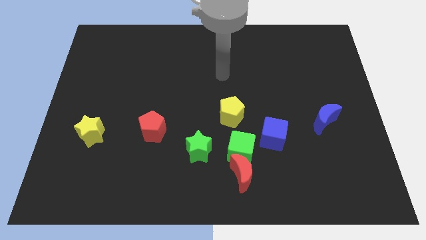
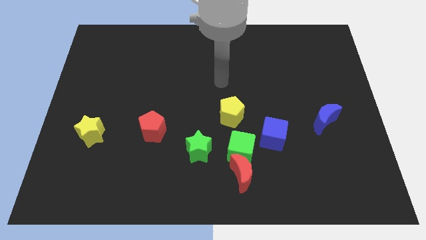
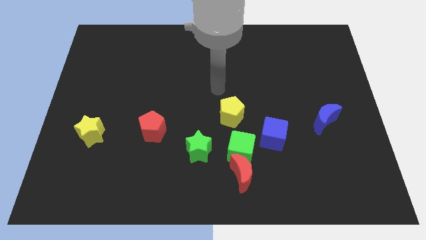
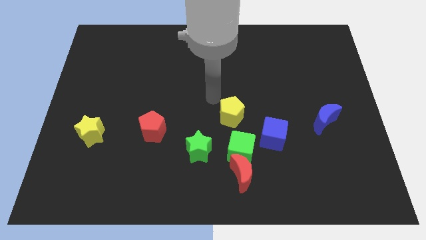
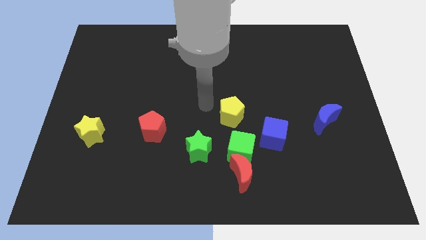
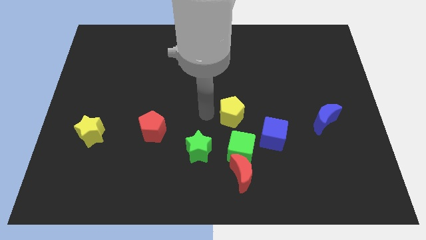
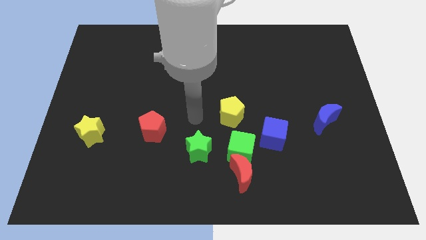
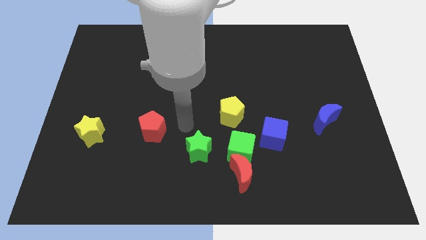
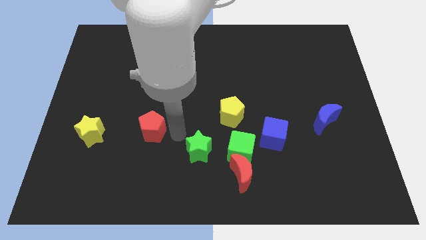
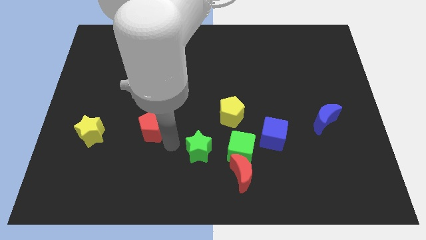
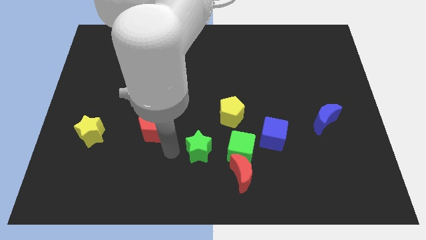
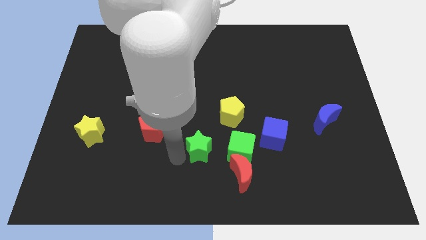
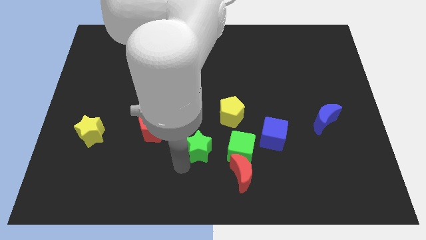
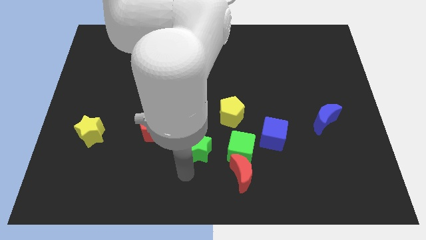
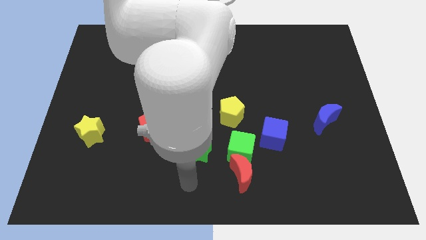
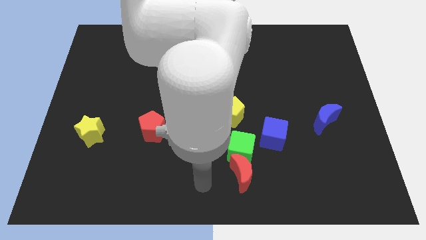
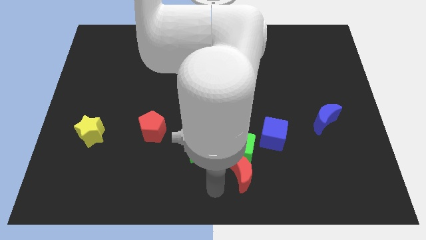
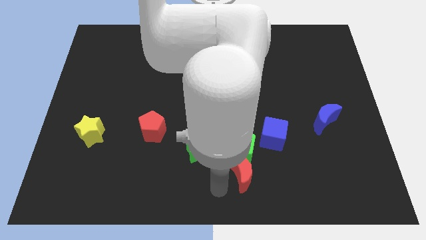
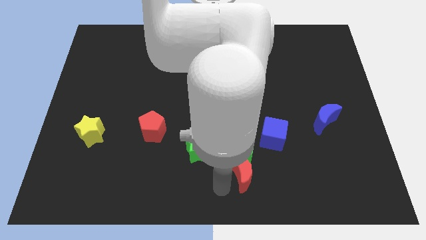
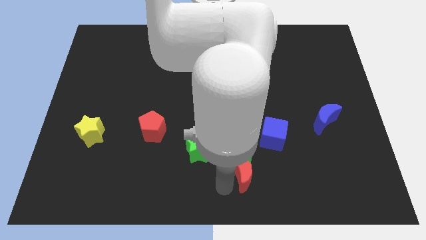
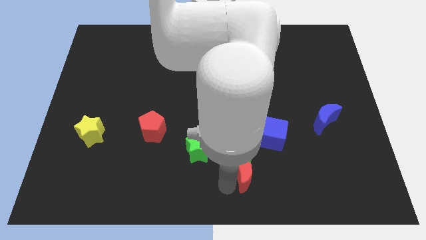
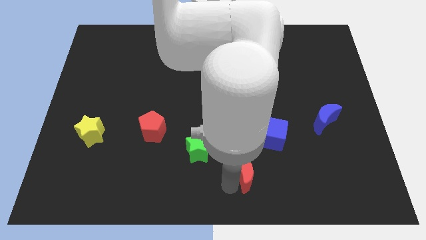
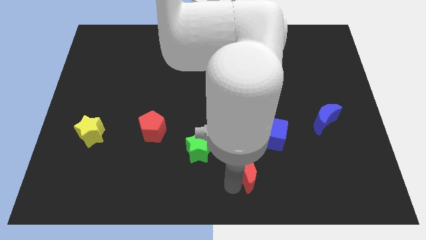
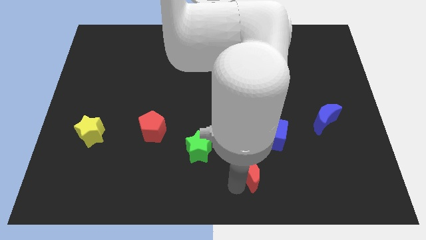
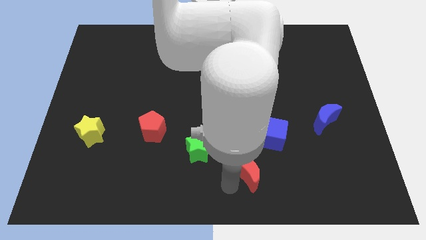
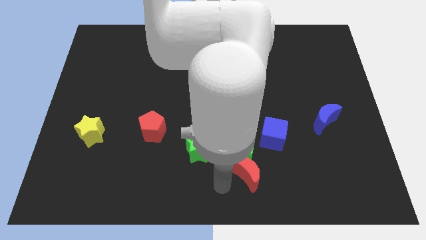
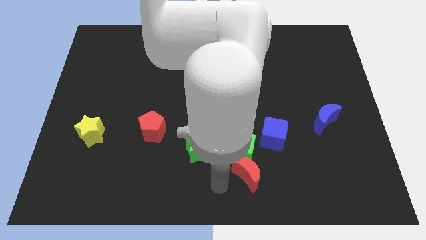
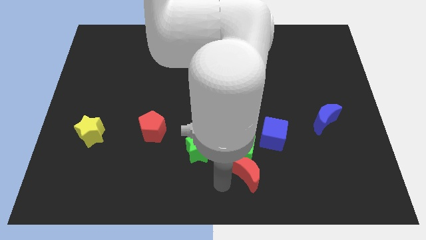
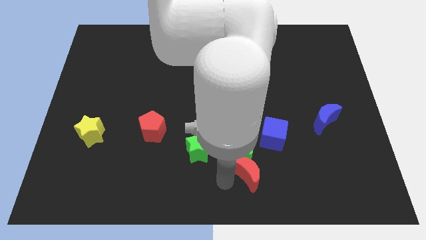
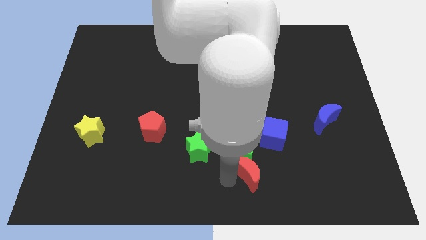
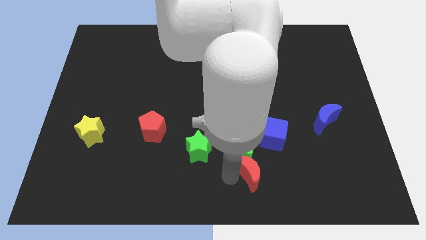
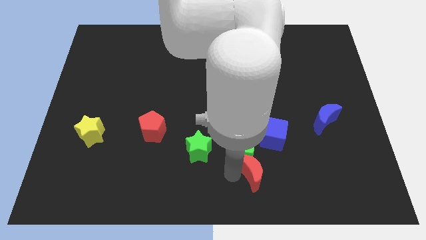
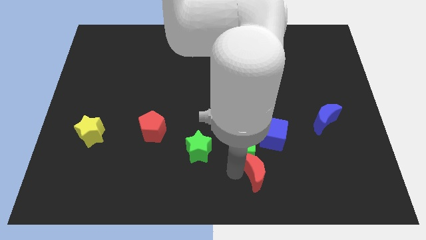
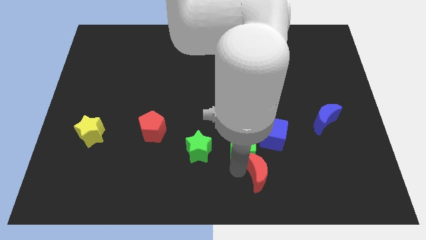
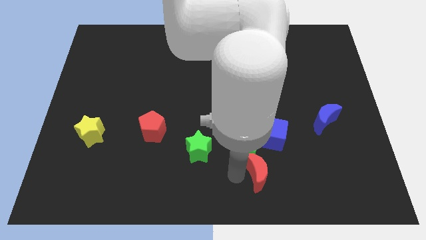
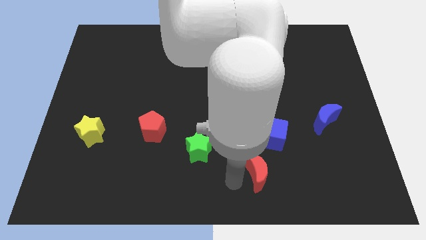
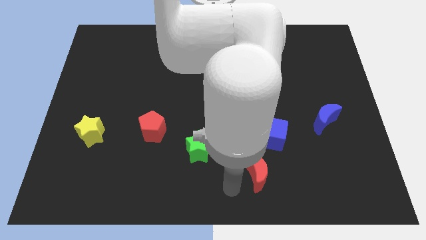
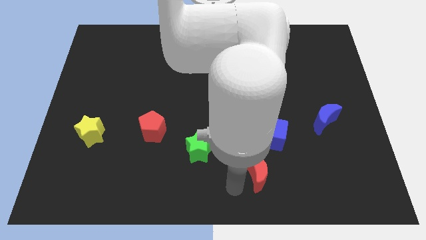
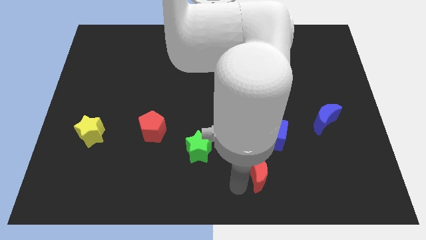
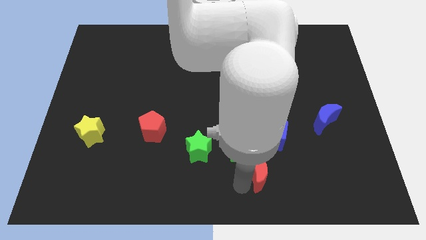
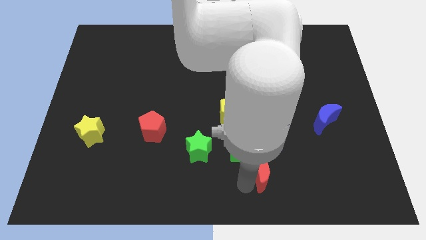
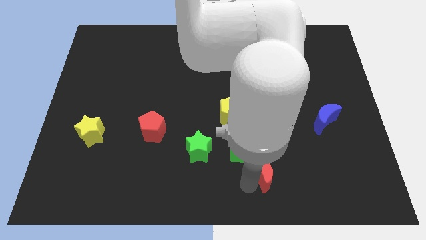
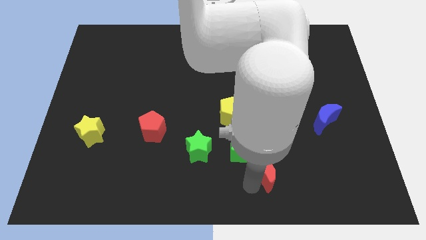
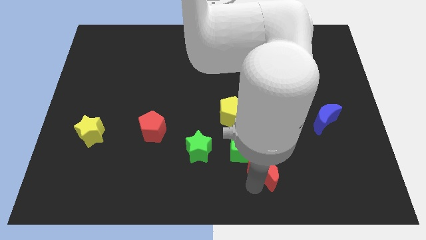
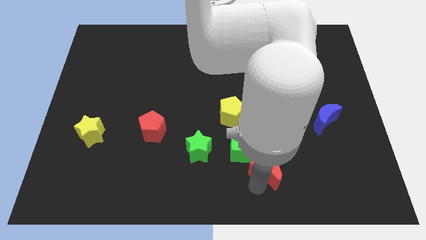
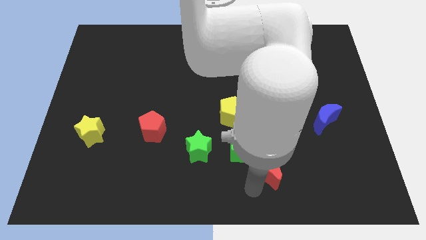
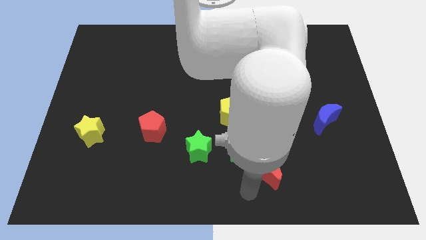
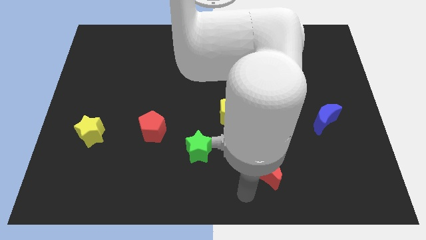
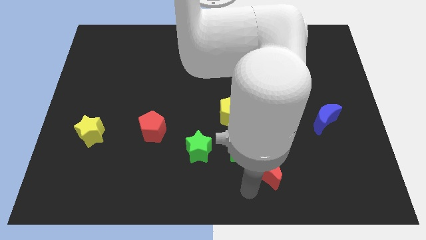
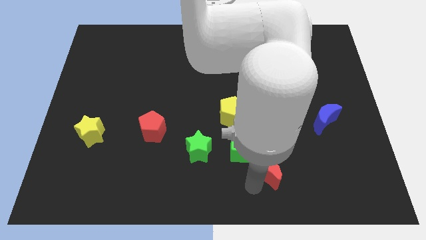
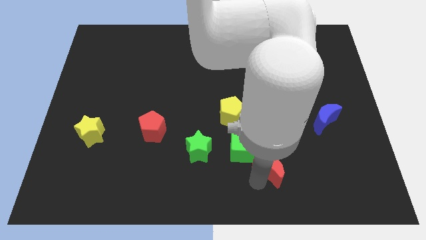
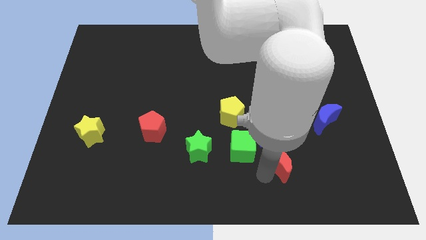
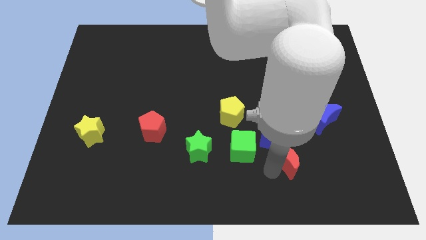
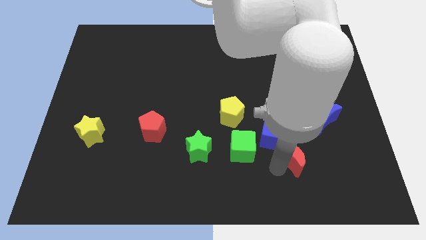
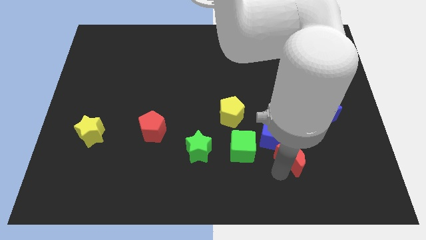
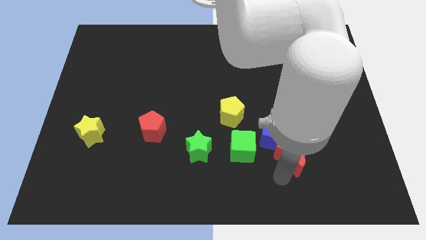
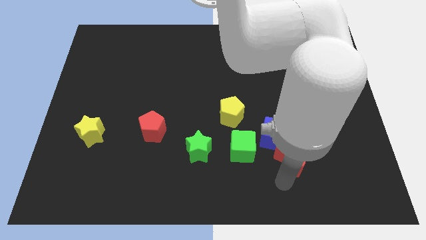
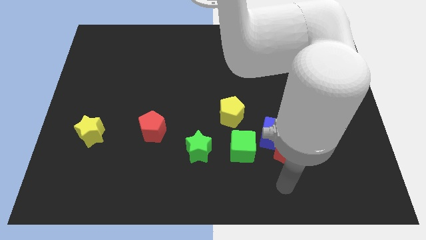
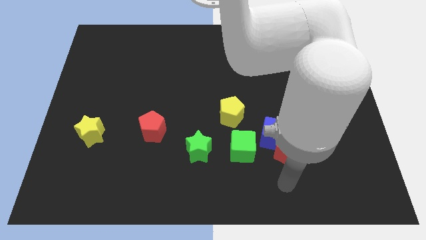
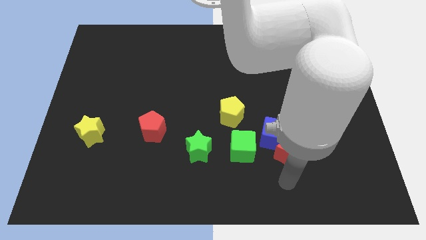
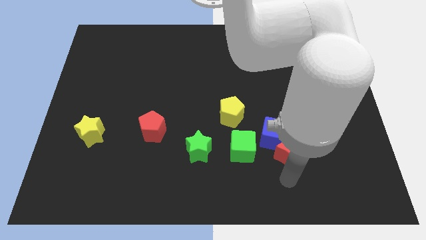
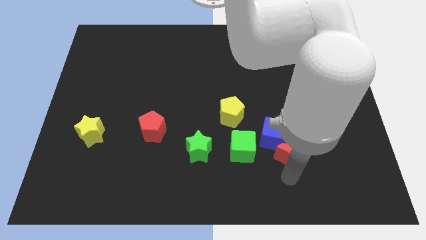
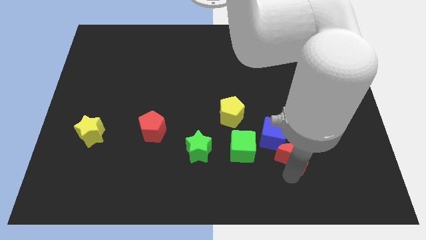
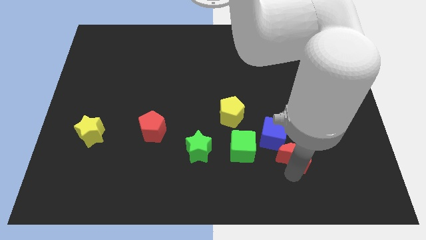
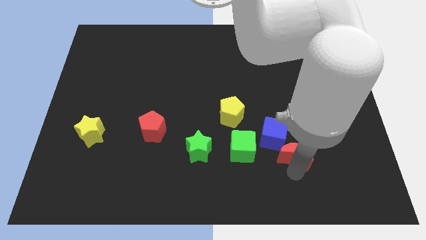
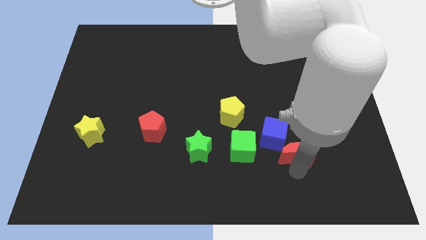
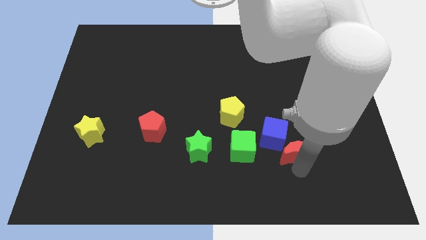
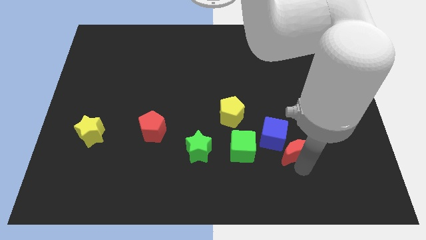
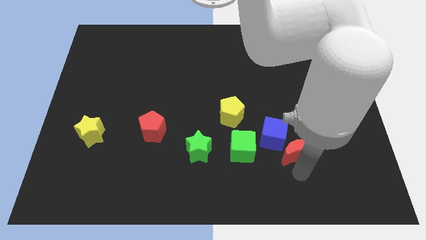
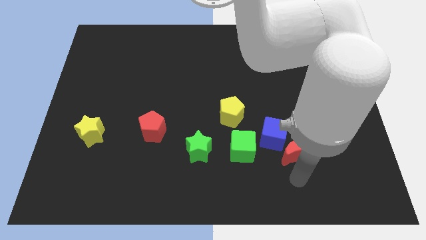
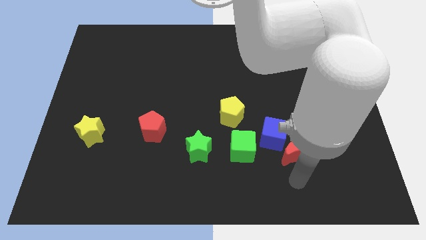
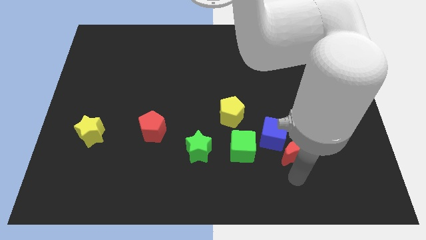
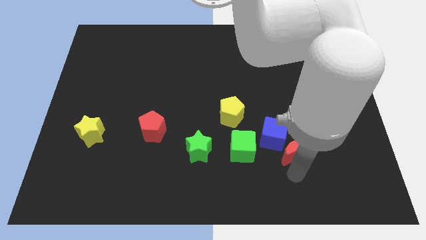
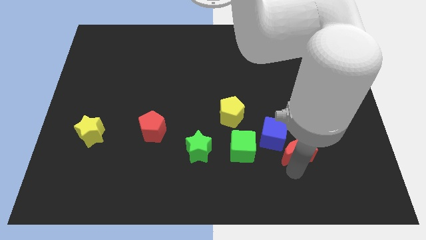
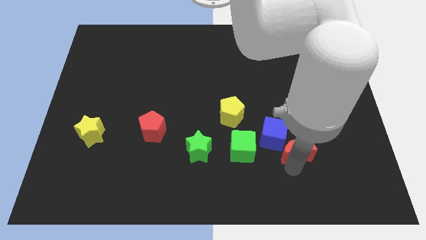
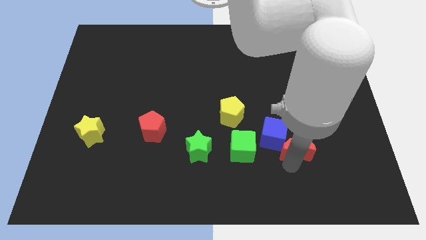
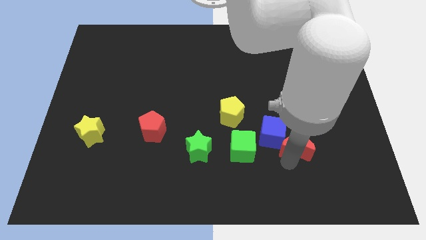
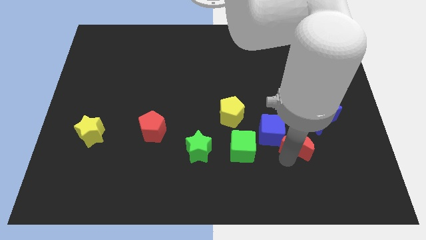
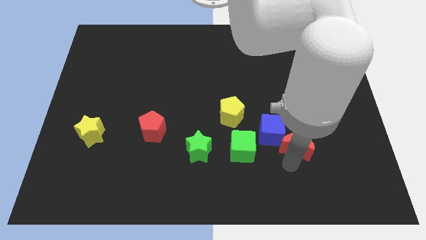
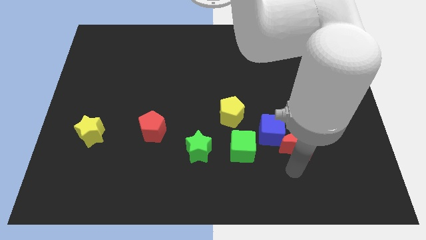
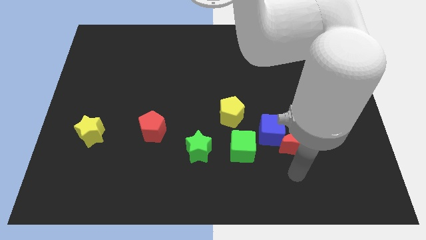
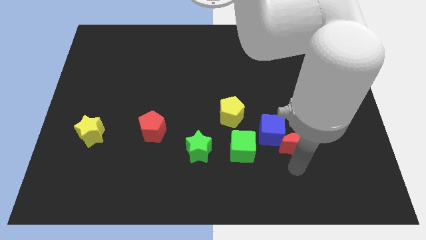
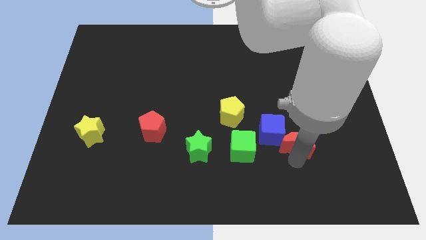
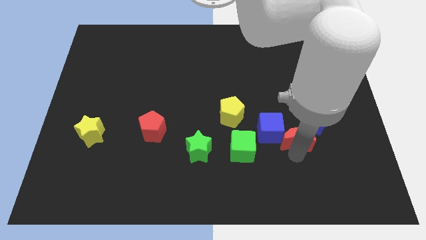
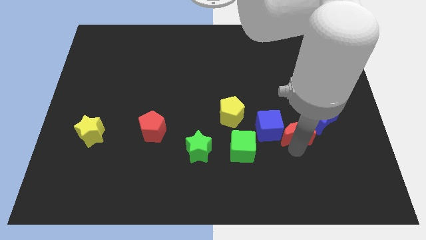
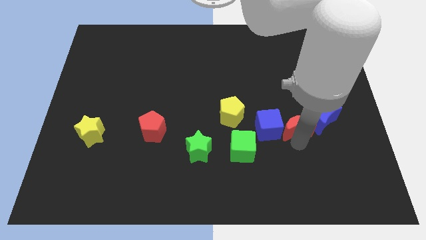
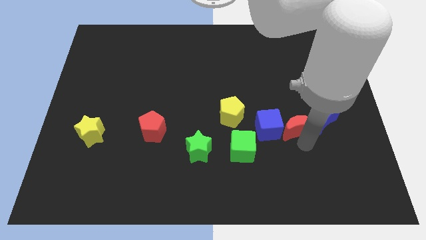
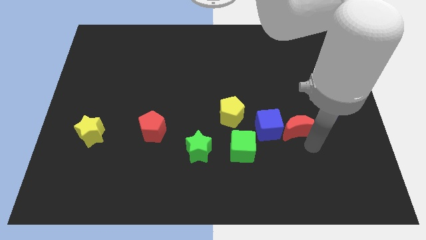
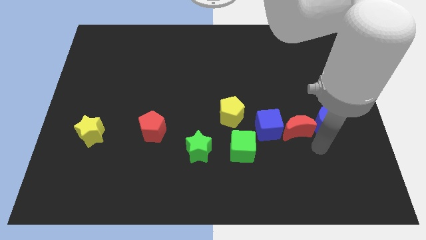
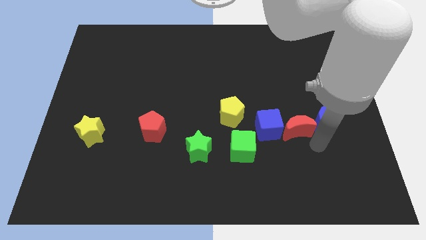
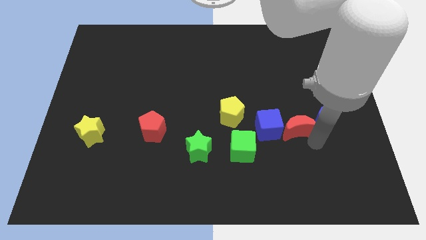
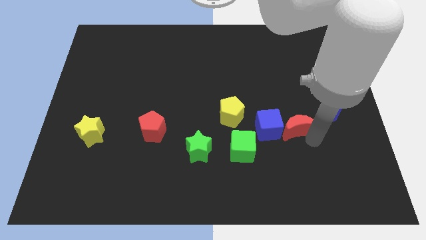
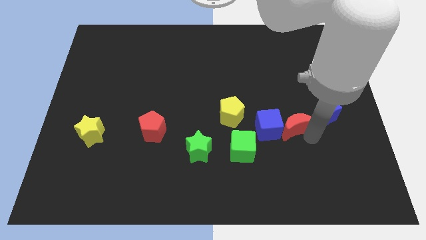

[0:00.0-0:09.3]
move the red moon just right of the yellow pentagon
